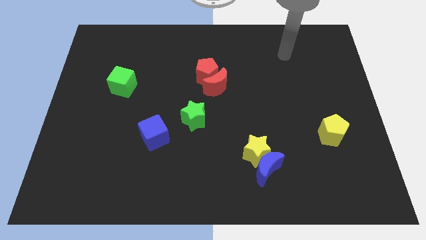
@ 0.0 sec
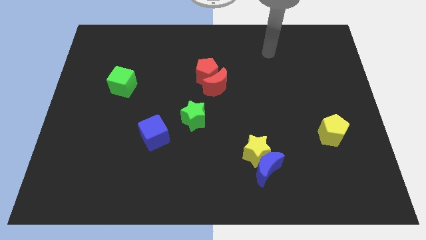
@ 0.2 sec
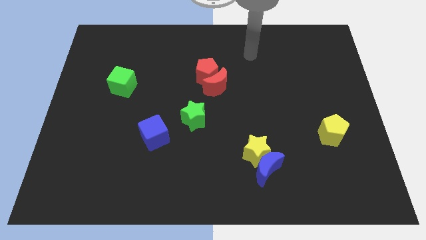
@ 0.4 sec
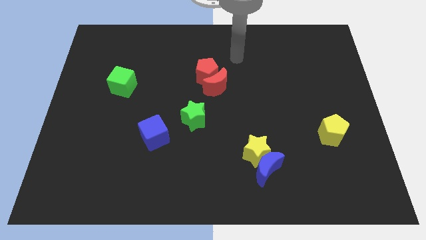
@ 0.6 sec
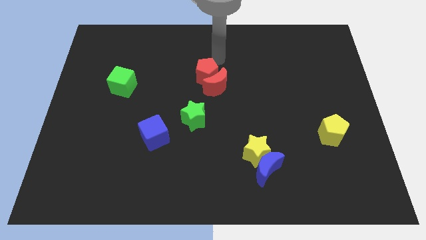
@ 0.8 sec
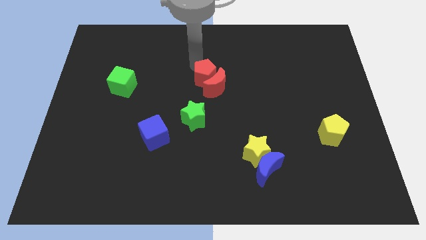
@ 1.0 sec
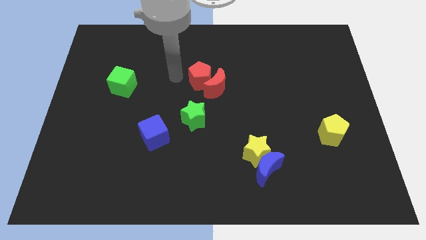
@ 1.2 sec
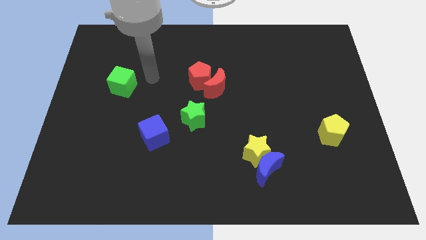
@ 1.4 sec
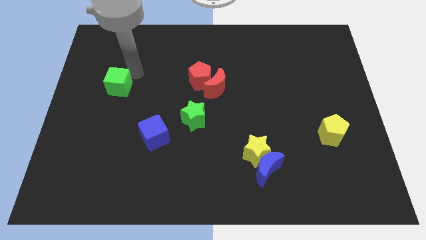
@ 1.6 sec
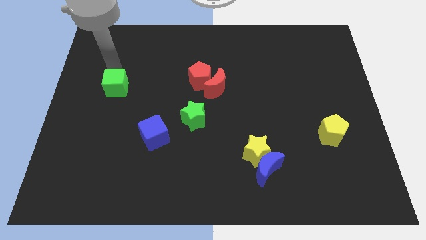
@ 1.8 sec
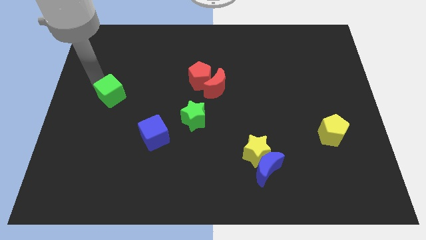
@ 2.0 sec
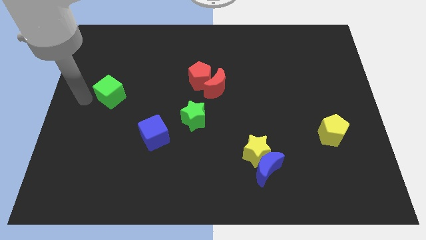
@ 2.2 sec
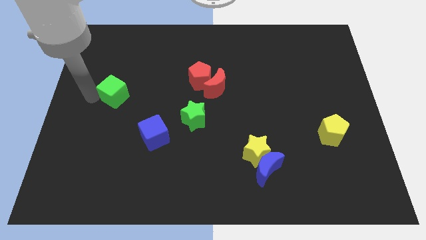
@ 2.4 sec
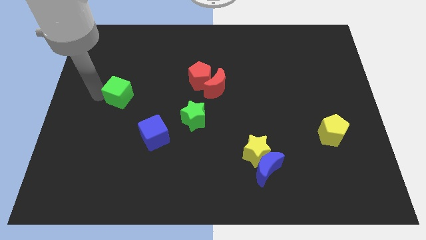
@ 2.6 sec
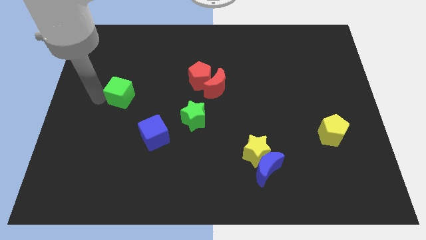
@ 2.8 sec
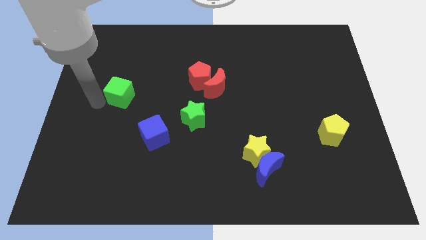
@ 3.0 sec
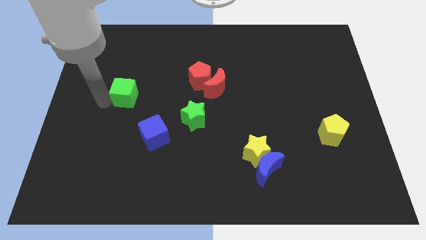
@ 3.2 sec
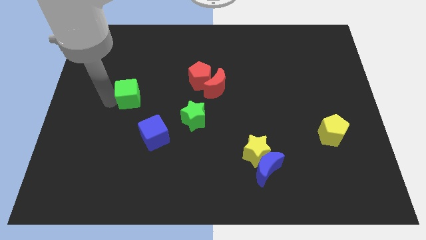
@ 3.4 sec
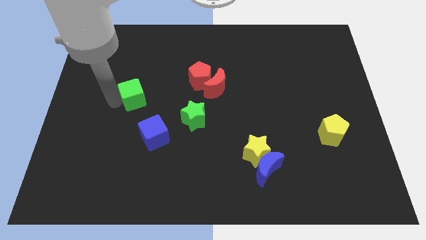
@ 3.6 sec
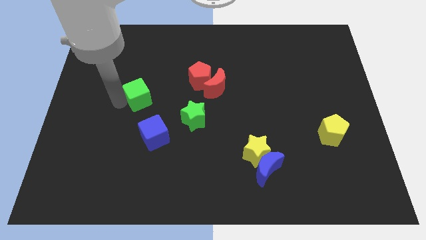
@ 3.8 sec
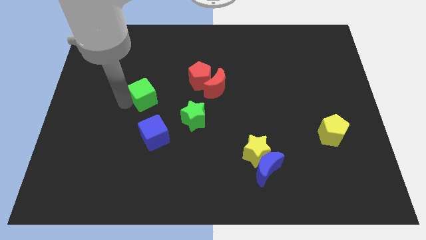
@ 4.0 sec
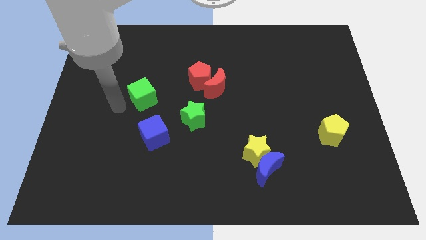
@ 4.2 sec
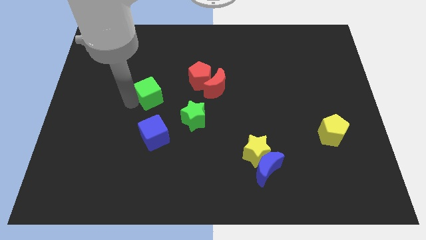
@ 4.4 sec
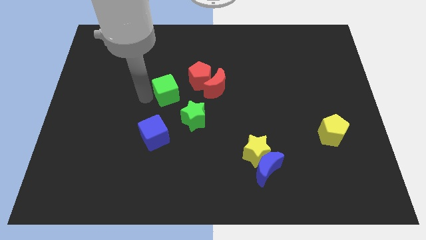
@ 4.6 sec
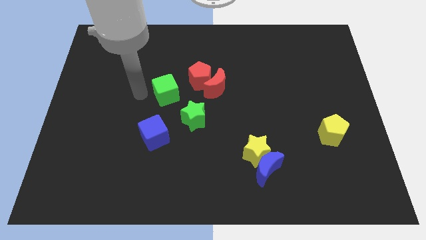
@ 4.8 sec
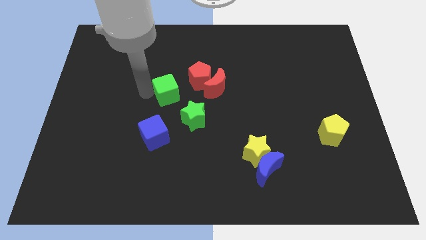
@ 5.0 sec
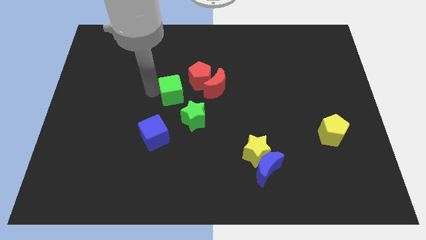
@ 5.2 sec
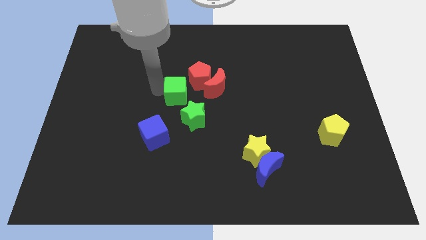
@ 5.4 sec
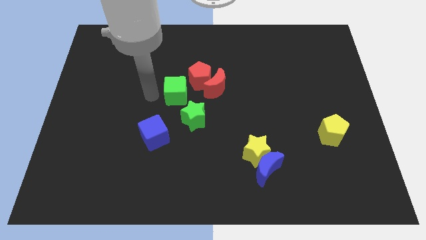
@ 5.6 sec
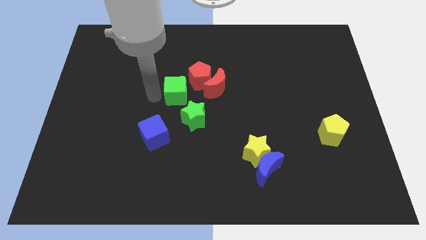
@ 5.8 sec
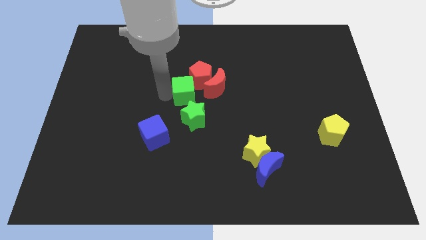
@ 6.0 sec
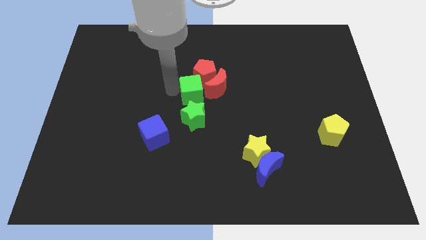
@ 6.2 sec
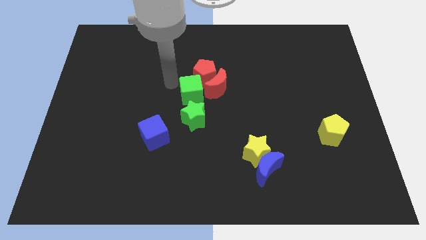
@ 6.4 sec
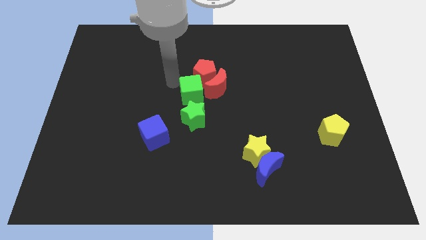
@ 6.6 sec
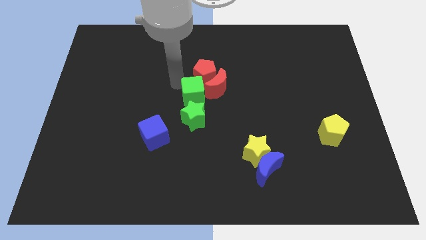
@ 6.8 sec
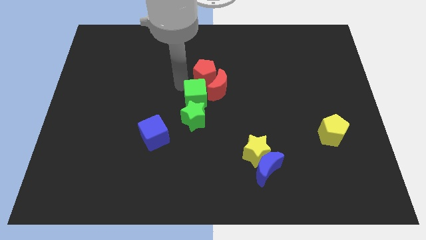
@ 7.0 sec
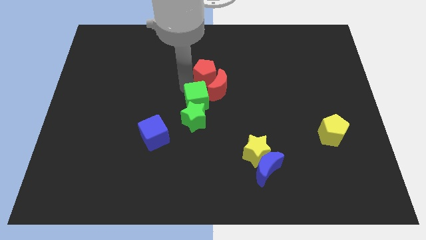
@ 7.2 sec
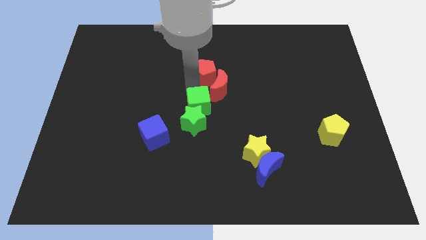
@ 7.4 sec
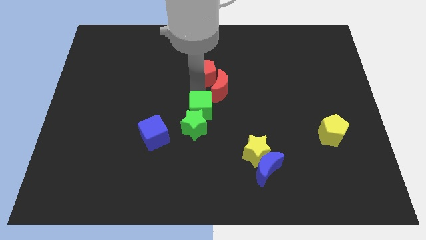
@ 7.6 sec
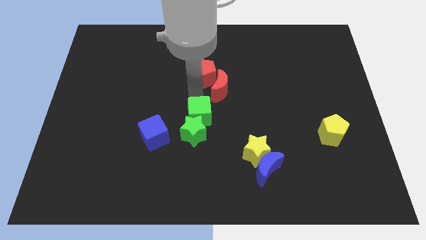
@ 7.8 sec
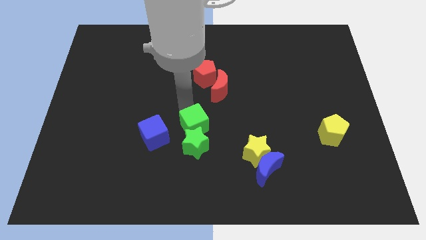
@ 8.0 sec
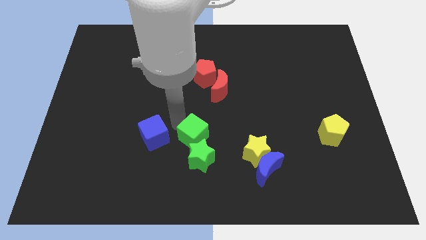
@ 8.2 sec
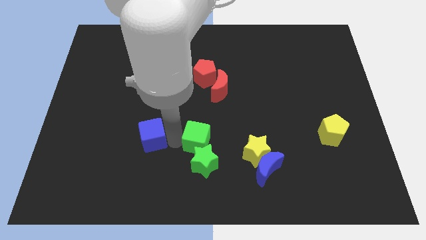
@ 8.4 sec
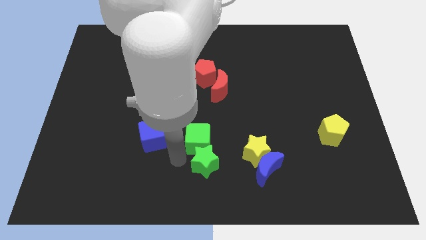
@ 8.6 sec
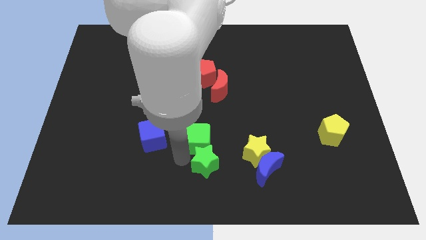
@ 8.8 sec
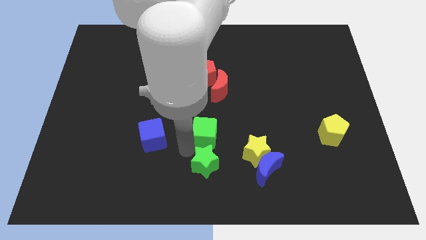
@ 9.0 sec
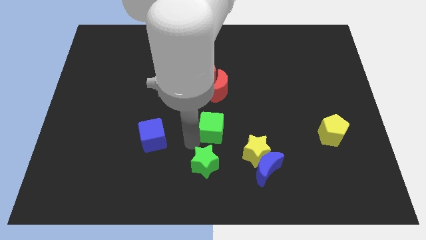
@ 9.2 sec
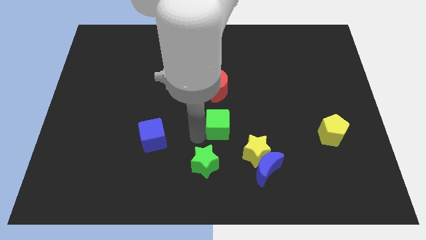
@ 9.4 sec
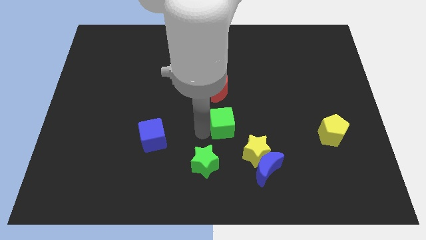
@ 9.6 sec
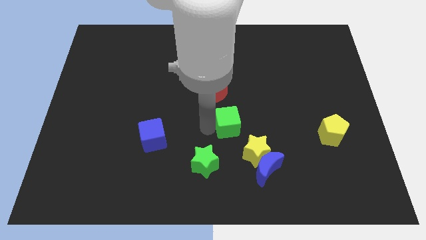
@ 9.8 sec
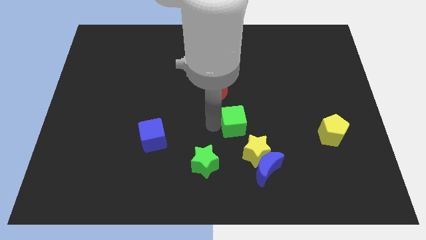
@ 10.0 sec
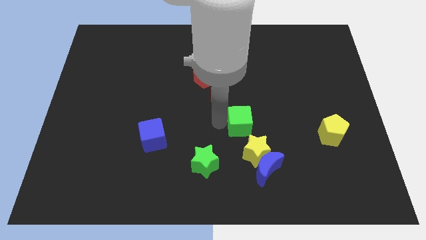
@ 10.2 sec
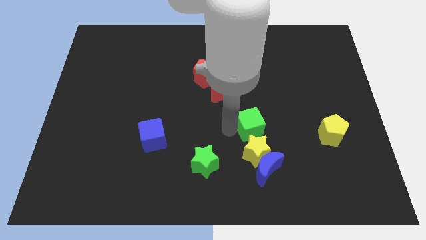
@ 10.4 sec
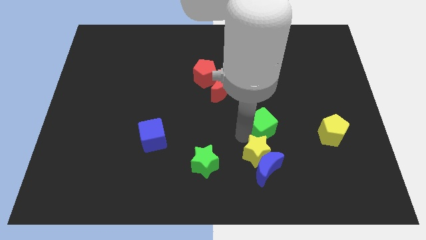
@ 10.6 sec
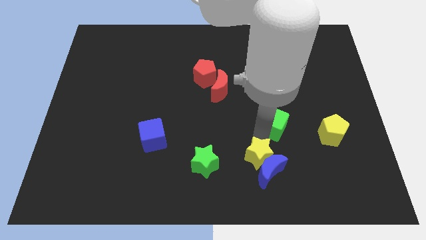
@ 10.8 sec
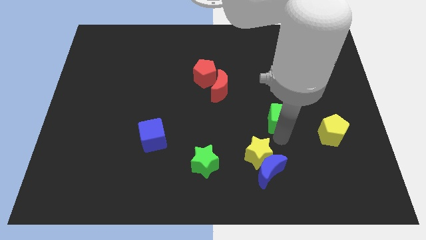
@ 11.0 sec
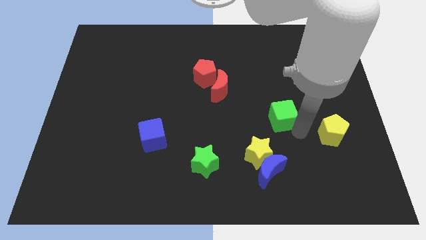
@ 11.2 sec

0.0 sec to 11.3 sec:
move the green cube to the top left side of the yellow pentagon

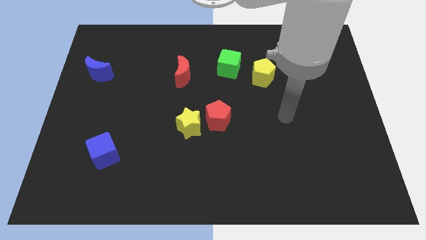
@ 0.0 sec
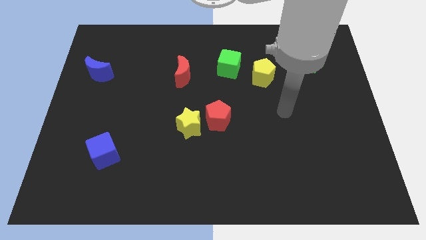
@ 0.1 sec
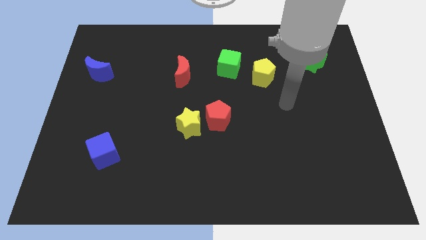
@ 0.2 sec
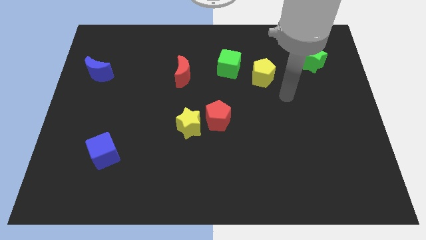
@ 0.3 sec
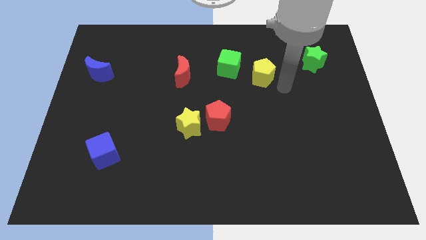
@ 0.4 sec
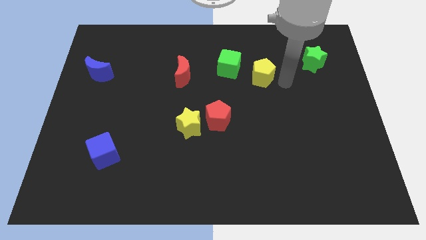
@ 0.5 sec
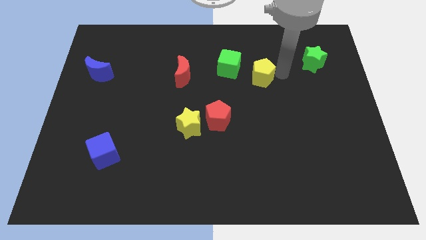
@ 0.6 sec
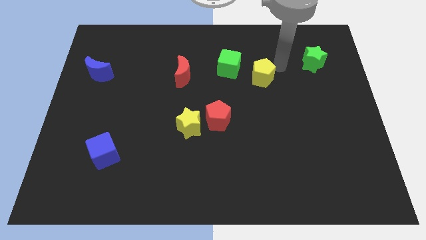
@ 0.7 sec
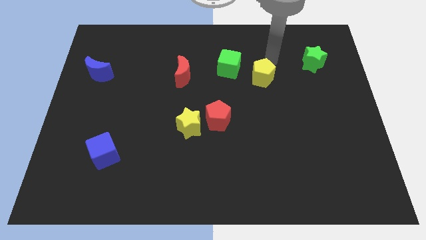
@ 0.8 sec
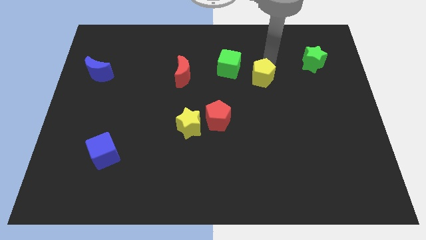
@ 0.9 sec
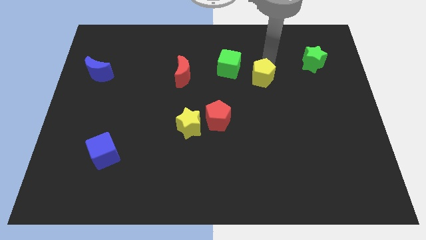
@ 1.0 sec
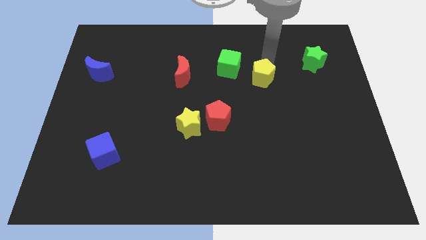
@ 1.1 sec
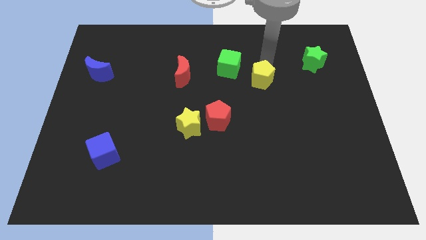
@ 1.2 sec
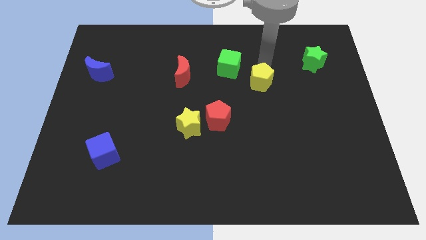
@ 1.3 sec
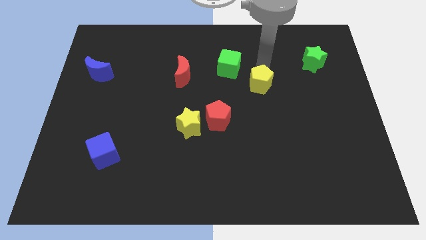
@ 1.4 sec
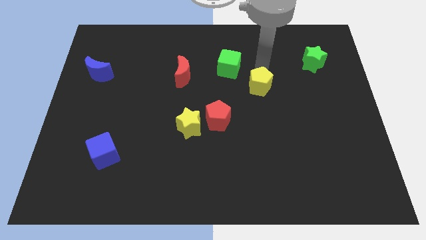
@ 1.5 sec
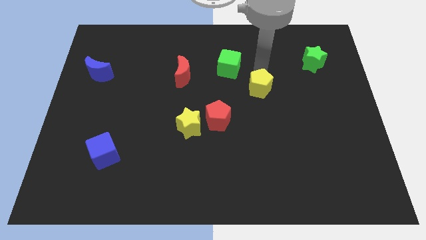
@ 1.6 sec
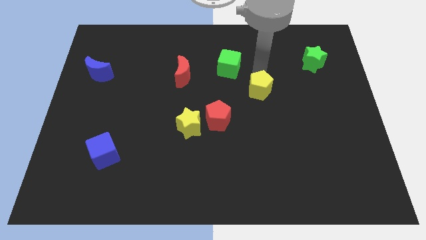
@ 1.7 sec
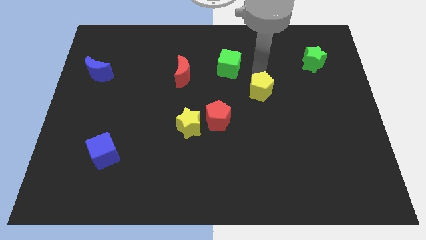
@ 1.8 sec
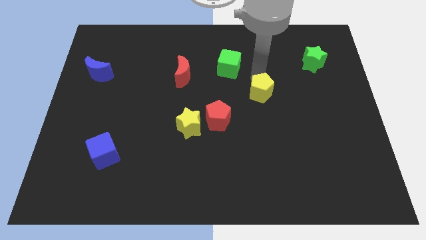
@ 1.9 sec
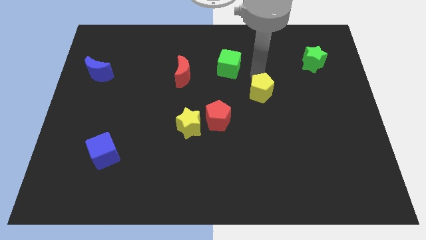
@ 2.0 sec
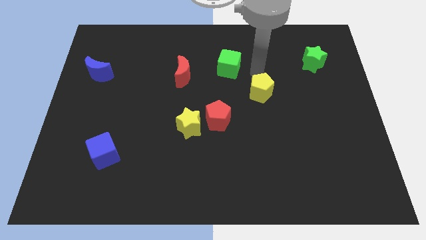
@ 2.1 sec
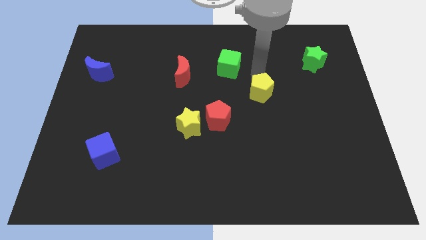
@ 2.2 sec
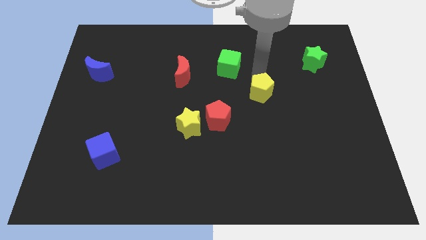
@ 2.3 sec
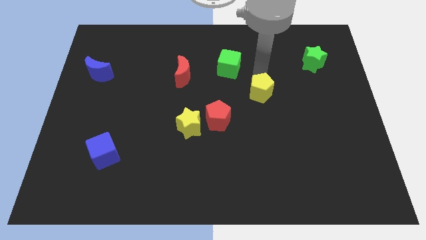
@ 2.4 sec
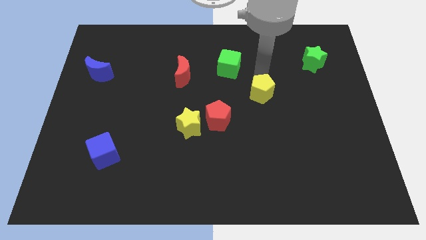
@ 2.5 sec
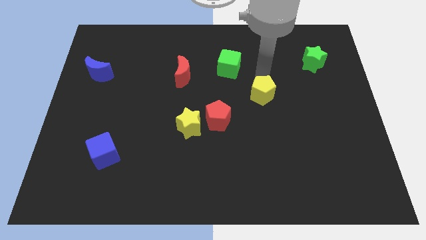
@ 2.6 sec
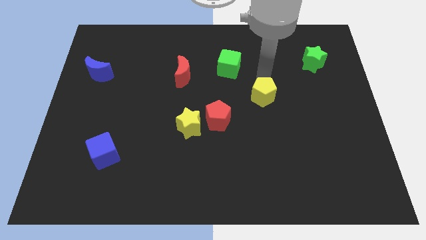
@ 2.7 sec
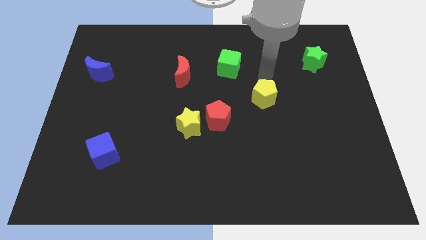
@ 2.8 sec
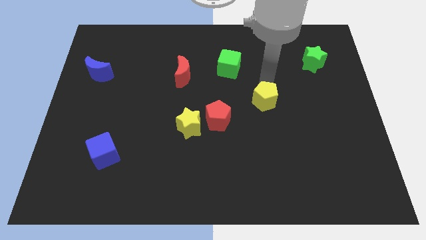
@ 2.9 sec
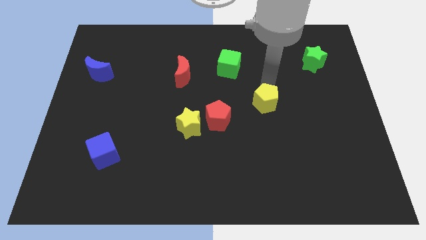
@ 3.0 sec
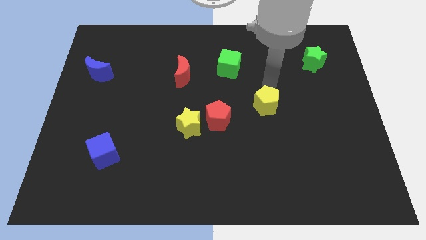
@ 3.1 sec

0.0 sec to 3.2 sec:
put the yellow pentagon to the right side of the red pentagon
